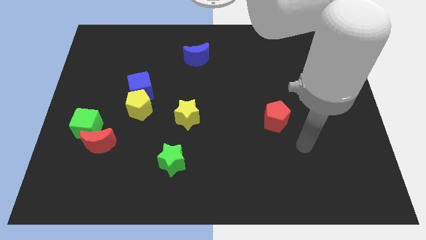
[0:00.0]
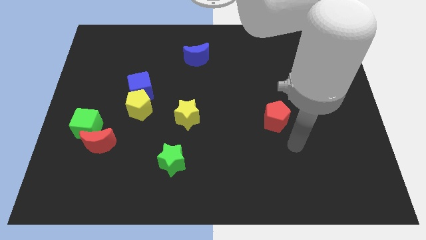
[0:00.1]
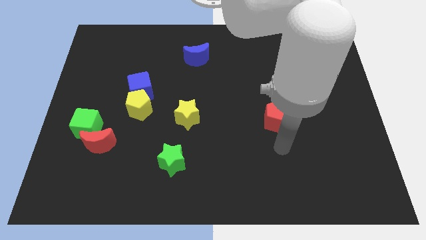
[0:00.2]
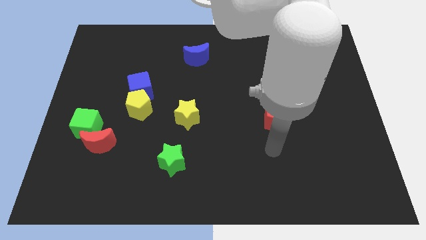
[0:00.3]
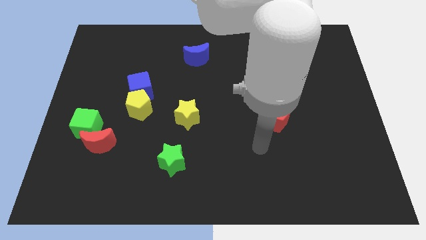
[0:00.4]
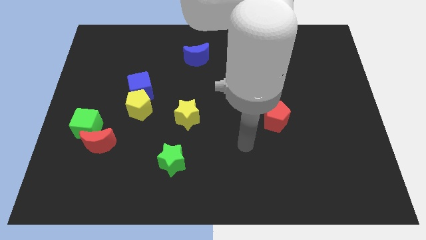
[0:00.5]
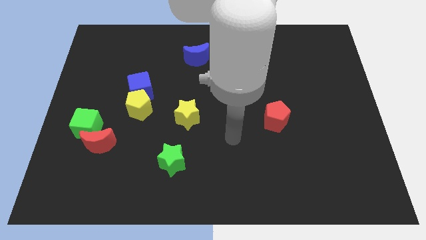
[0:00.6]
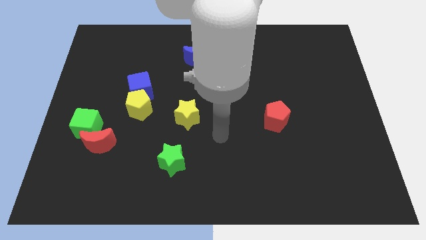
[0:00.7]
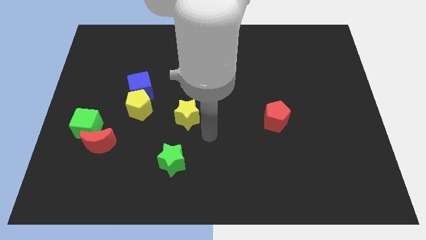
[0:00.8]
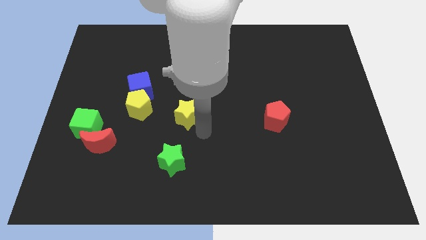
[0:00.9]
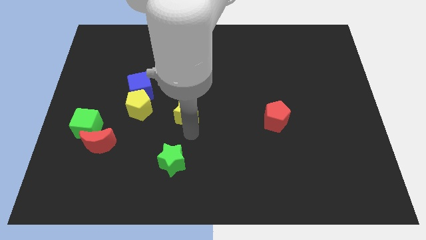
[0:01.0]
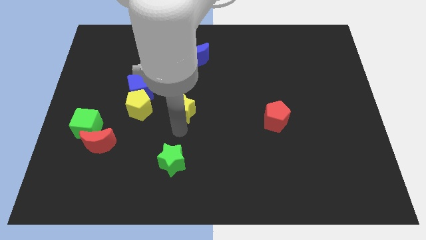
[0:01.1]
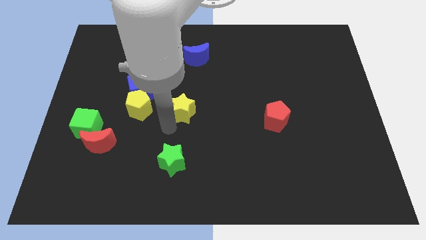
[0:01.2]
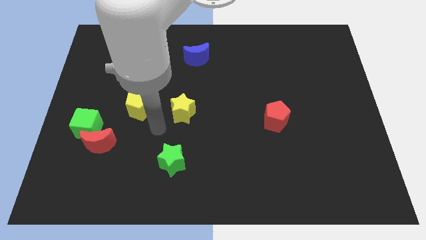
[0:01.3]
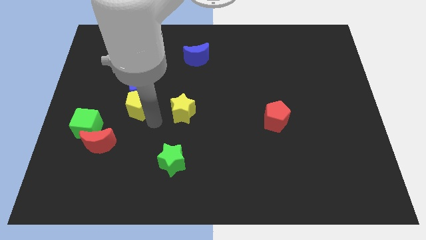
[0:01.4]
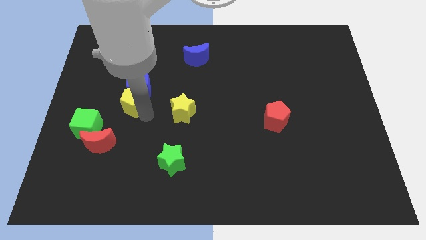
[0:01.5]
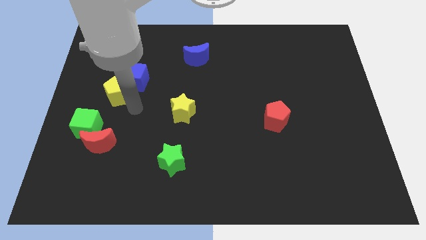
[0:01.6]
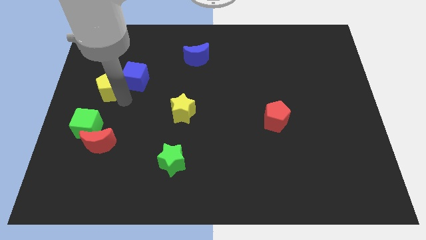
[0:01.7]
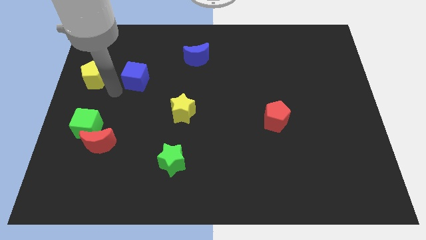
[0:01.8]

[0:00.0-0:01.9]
separate the blue cube from the yellow pentagon

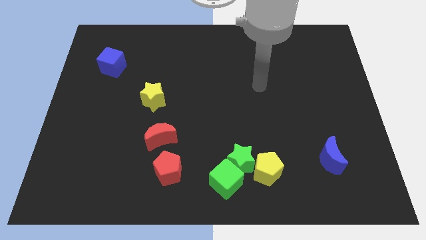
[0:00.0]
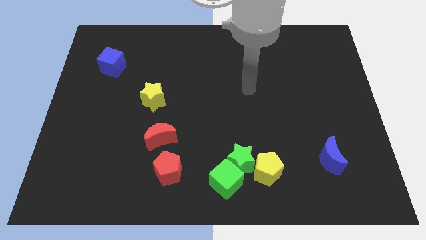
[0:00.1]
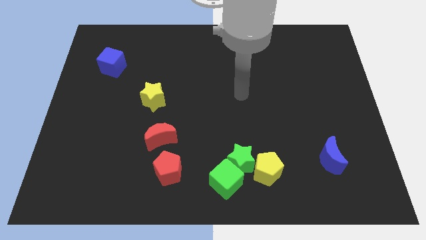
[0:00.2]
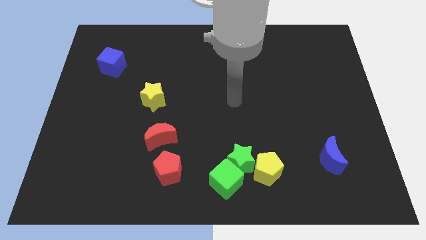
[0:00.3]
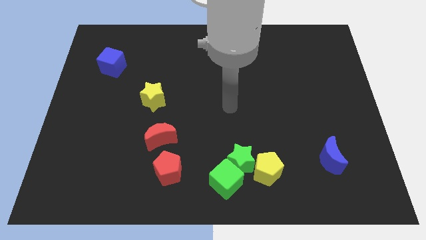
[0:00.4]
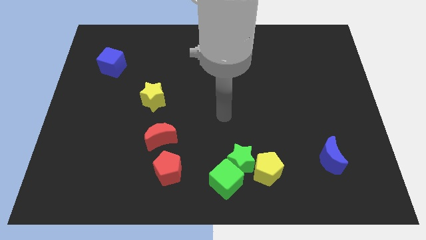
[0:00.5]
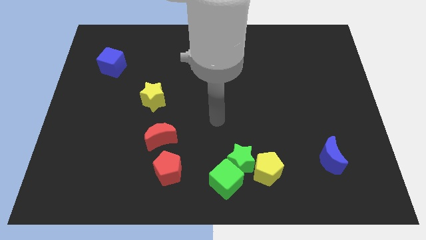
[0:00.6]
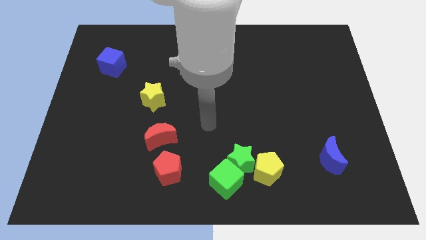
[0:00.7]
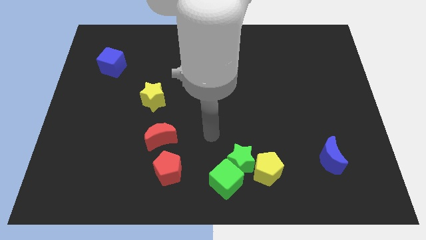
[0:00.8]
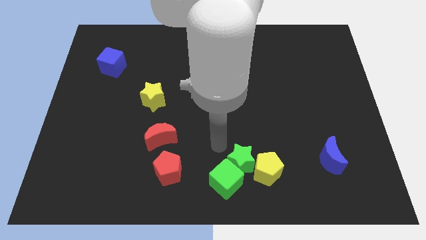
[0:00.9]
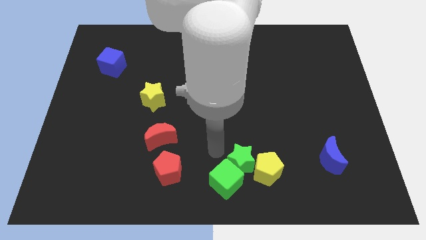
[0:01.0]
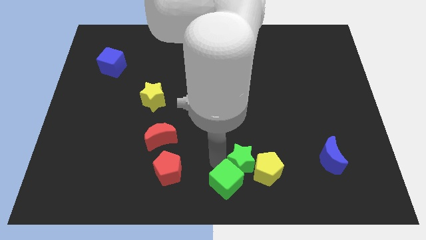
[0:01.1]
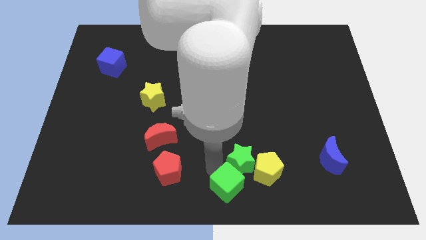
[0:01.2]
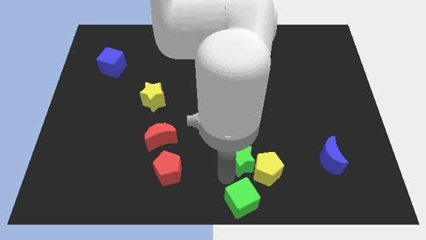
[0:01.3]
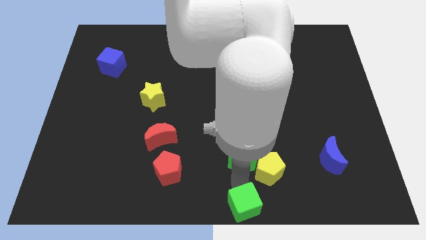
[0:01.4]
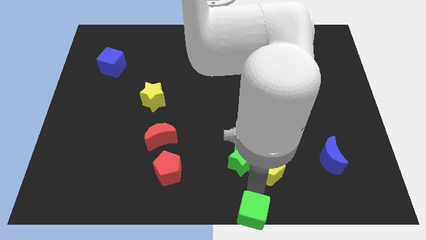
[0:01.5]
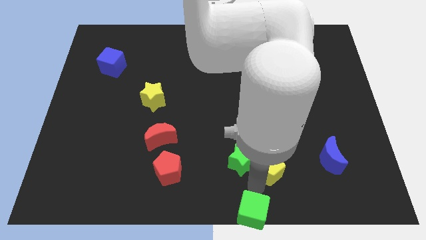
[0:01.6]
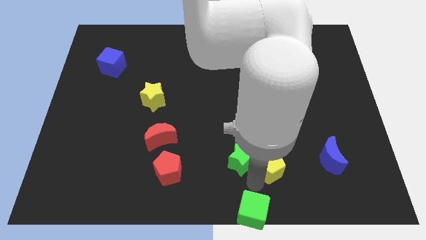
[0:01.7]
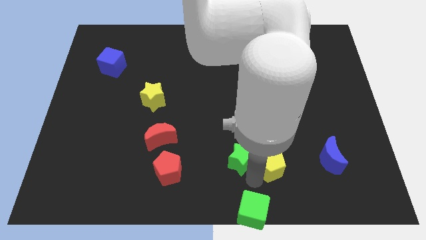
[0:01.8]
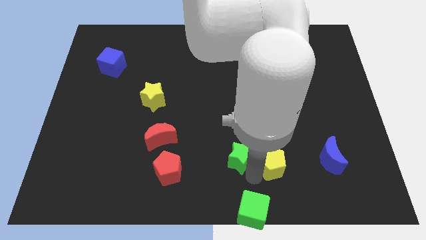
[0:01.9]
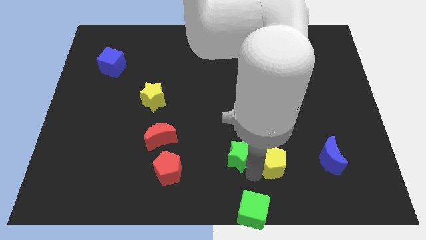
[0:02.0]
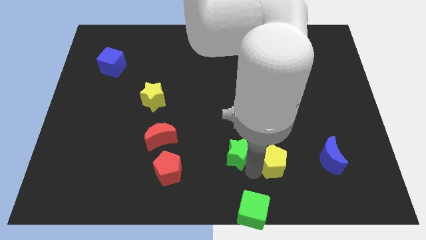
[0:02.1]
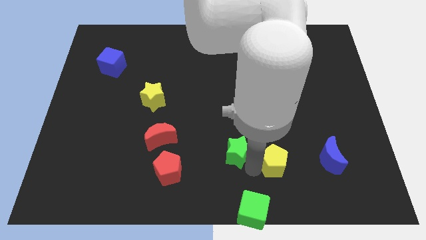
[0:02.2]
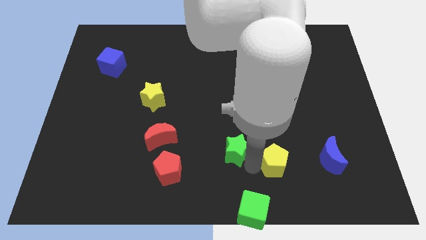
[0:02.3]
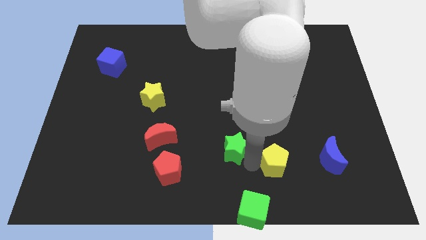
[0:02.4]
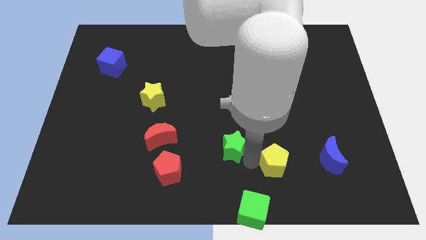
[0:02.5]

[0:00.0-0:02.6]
pull the green star apart from the green cube and yellow pentagon

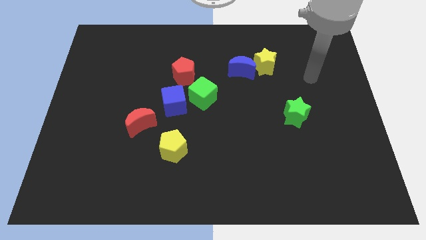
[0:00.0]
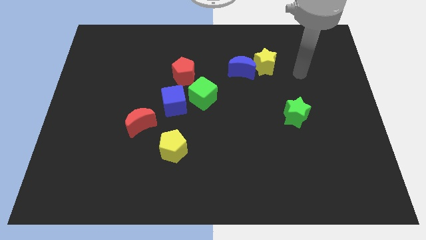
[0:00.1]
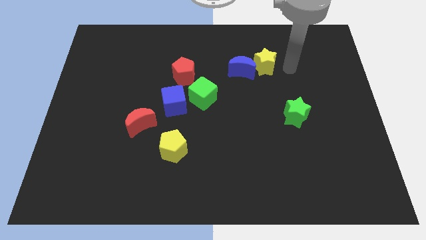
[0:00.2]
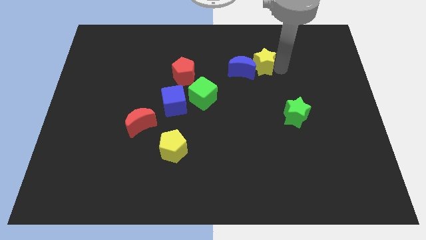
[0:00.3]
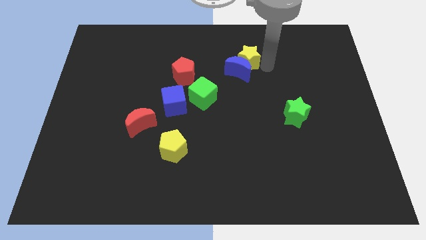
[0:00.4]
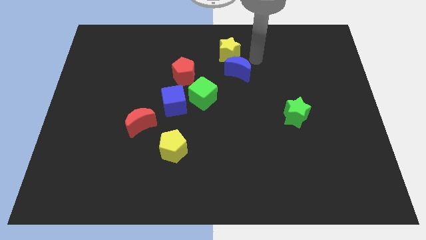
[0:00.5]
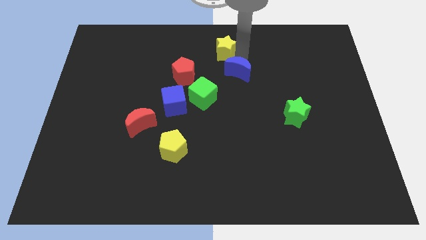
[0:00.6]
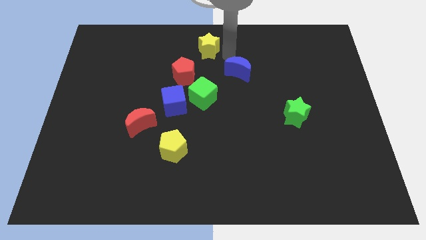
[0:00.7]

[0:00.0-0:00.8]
pull the blue moon apart from the yellow star

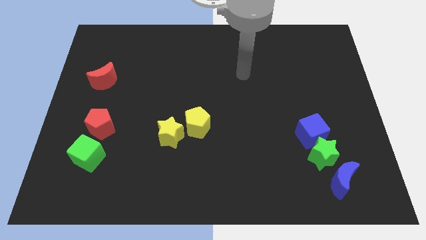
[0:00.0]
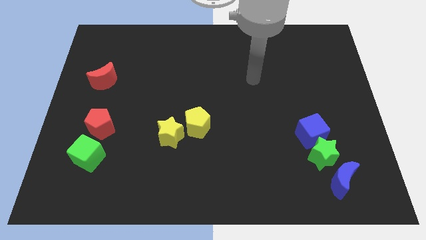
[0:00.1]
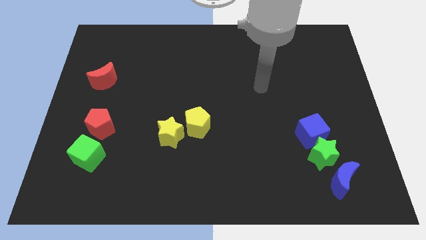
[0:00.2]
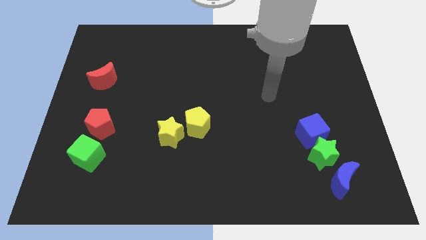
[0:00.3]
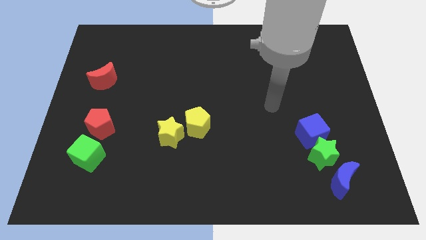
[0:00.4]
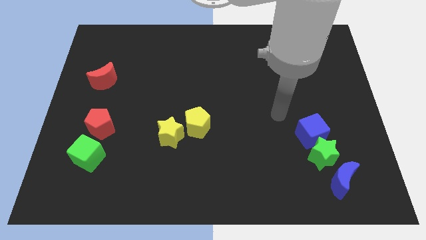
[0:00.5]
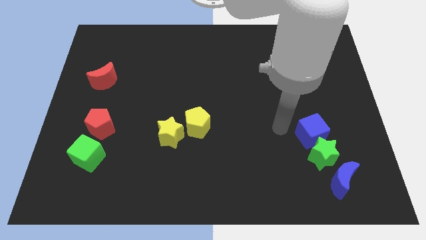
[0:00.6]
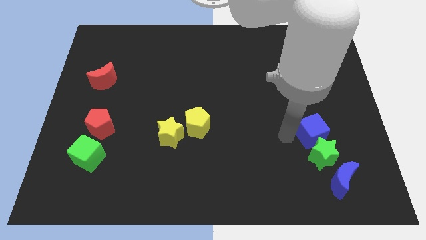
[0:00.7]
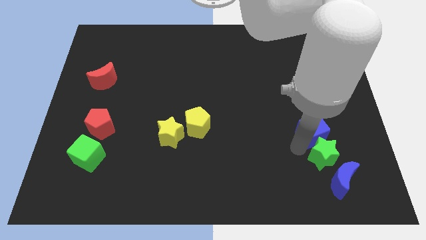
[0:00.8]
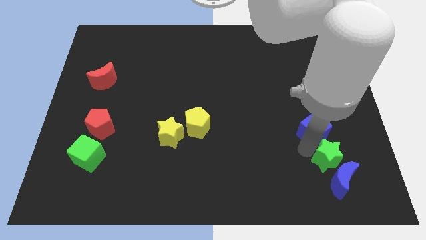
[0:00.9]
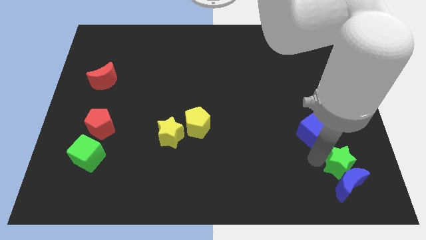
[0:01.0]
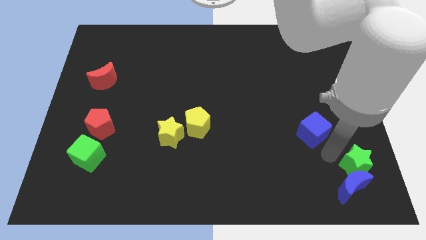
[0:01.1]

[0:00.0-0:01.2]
separate the blue cube from the green star

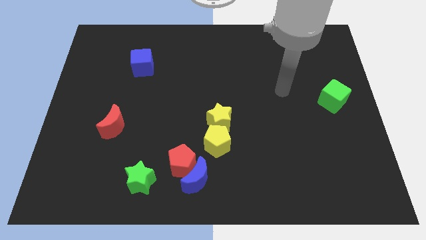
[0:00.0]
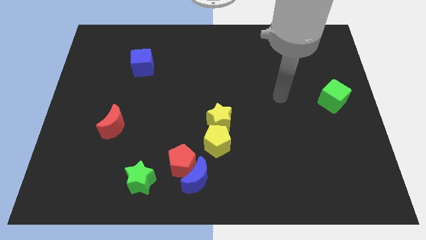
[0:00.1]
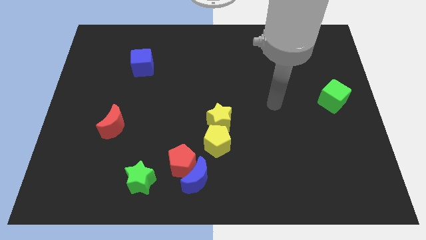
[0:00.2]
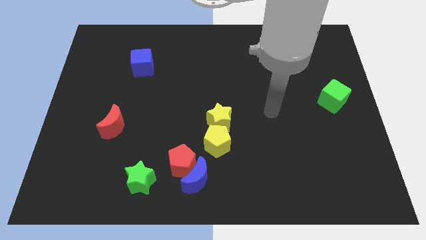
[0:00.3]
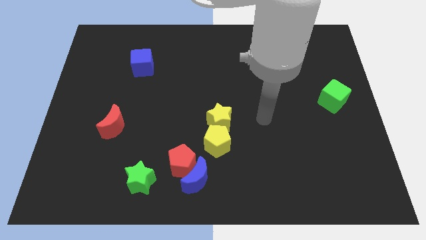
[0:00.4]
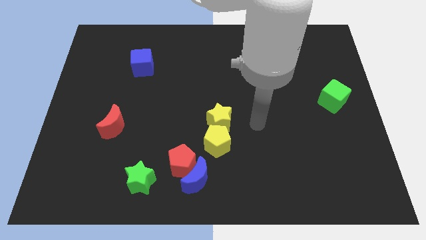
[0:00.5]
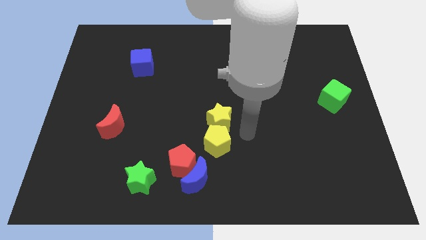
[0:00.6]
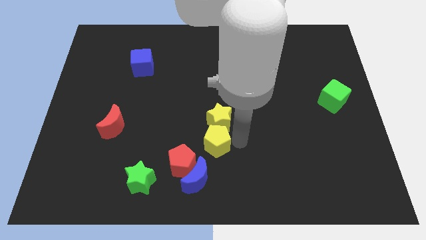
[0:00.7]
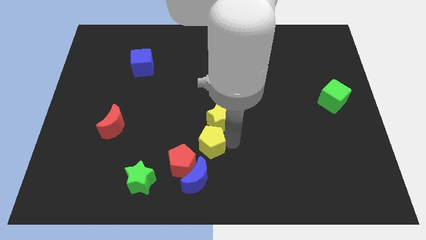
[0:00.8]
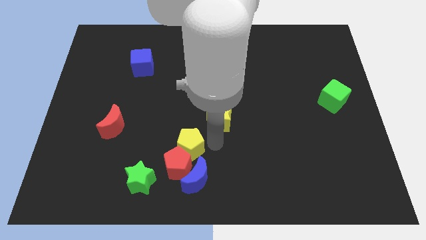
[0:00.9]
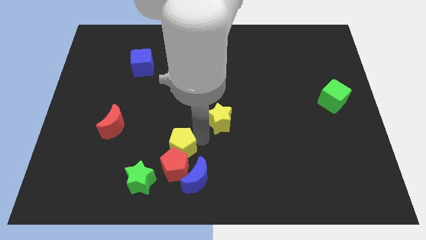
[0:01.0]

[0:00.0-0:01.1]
pull the yellow star apart from the yellow pentagon

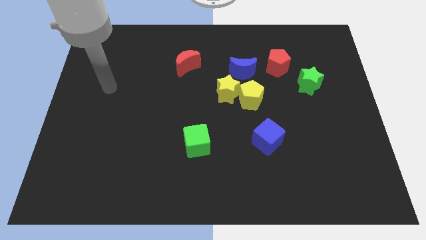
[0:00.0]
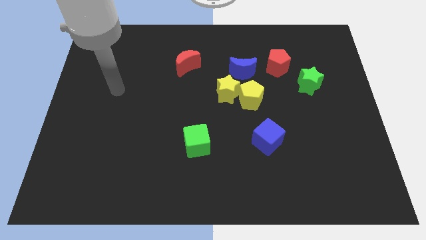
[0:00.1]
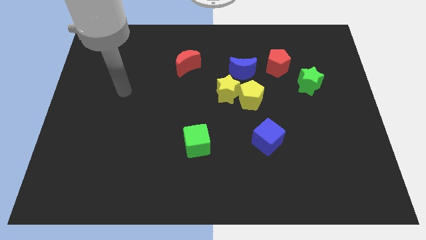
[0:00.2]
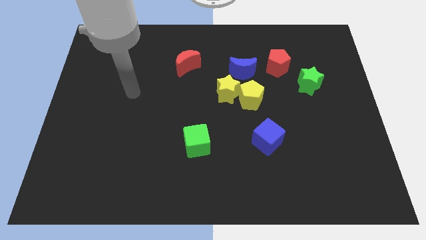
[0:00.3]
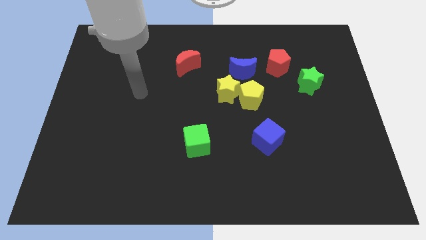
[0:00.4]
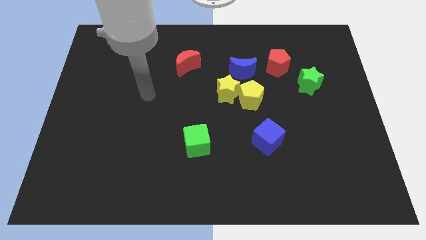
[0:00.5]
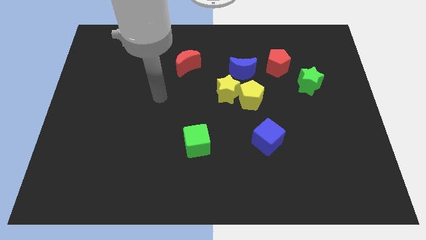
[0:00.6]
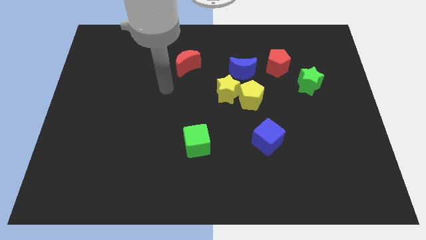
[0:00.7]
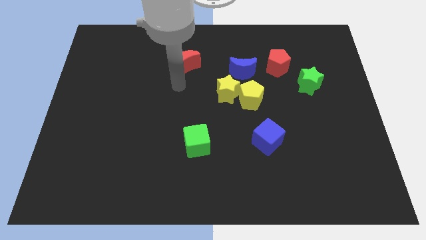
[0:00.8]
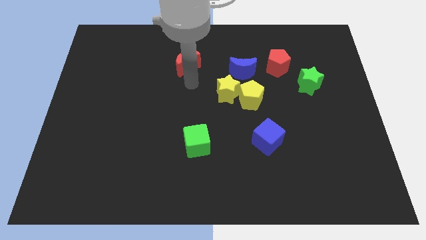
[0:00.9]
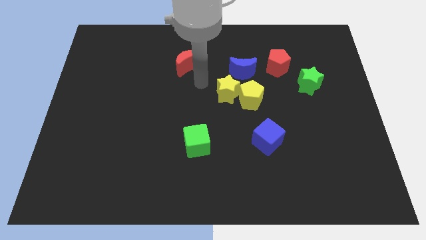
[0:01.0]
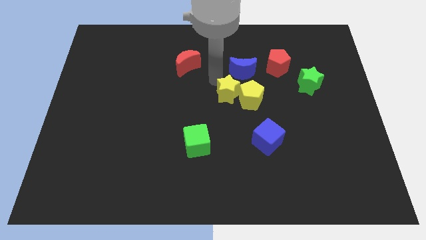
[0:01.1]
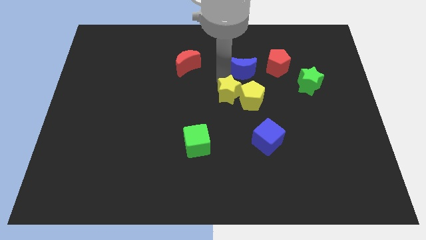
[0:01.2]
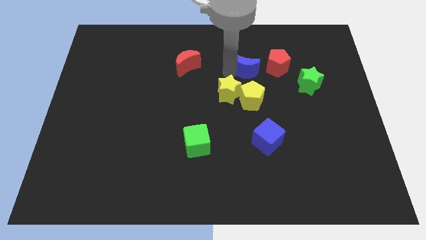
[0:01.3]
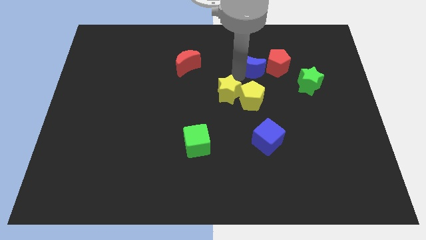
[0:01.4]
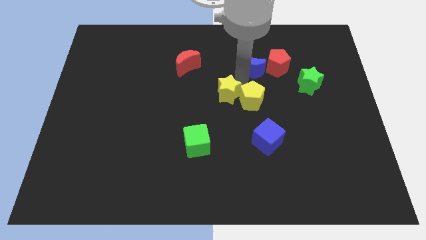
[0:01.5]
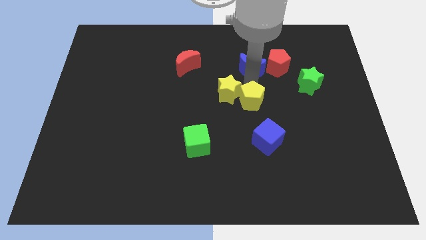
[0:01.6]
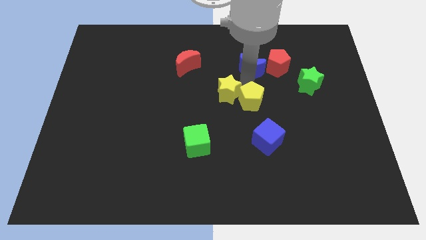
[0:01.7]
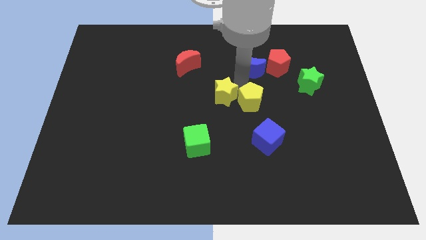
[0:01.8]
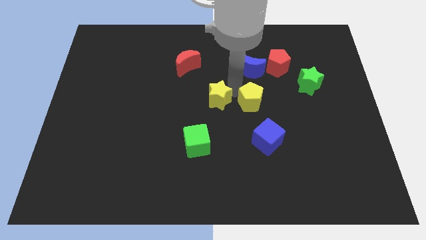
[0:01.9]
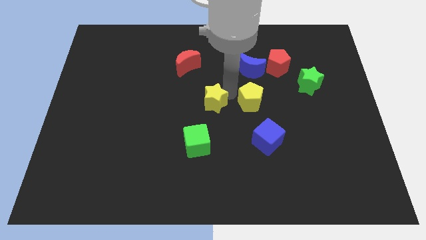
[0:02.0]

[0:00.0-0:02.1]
move the yellow star away from the yellow pentagon and blue moon
